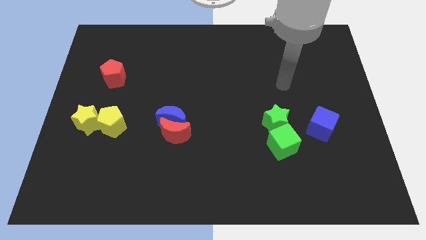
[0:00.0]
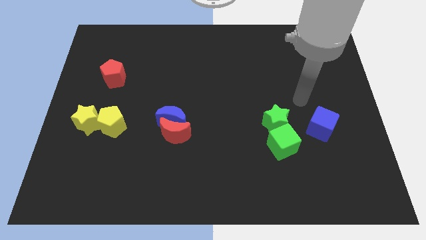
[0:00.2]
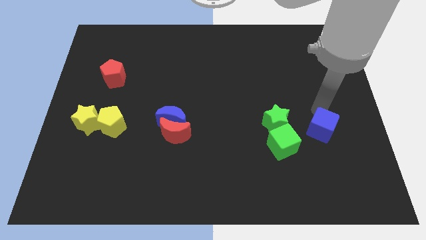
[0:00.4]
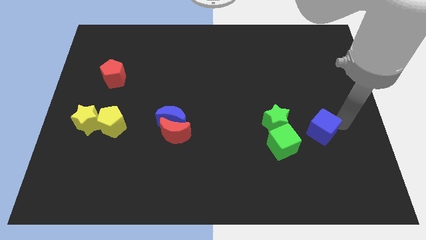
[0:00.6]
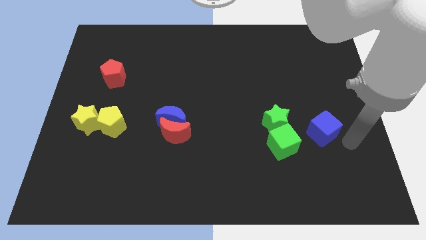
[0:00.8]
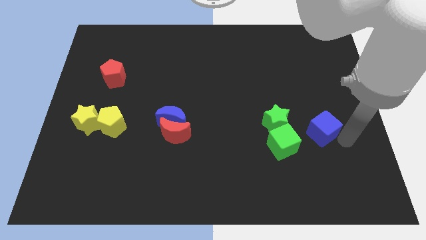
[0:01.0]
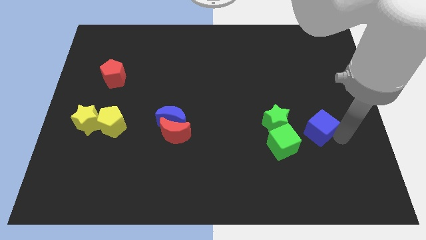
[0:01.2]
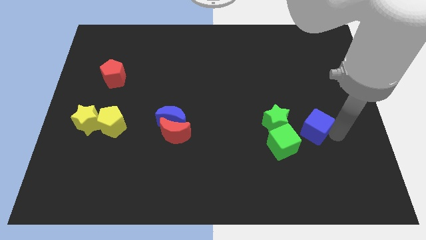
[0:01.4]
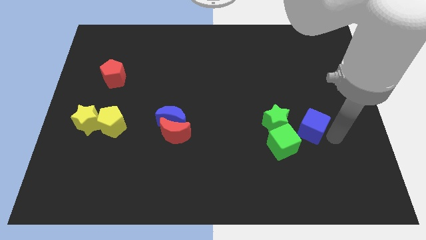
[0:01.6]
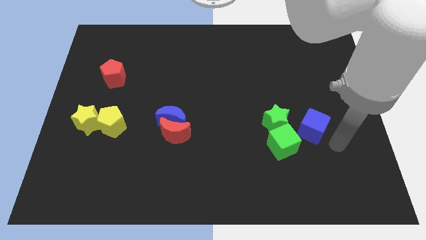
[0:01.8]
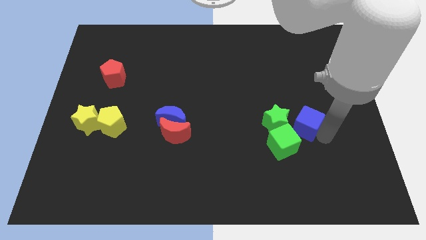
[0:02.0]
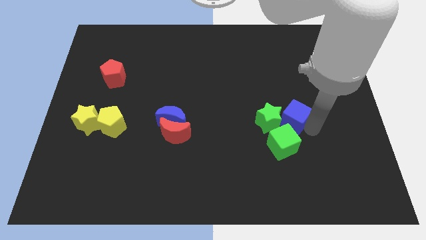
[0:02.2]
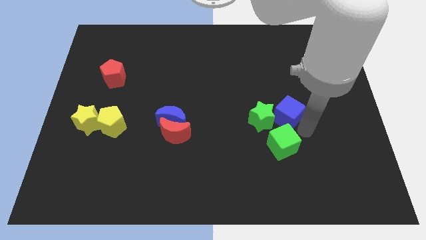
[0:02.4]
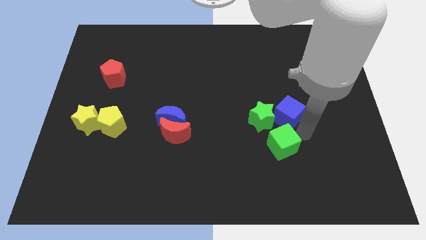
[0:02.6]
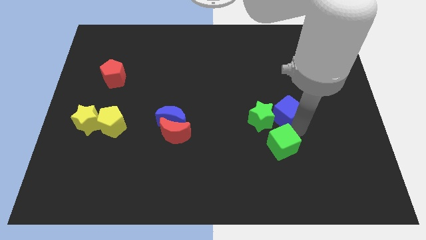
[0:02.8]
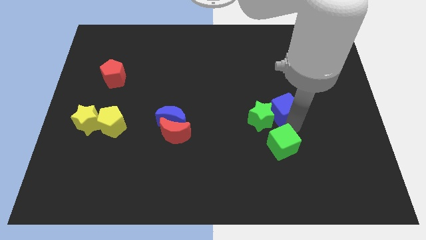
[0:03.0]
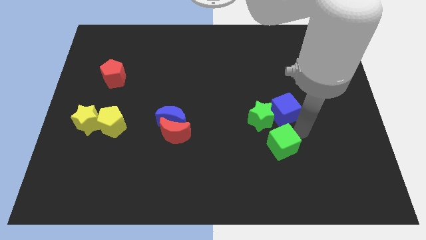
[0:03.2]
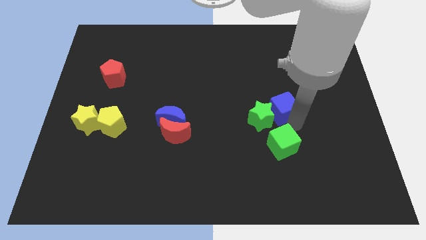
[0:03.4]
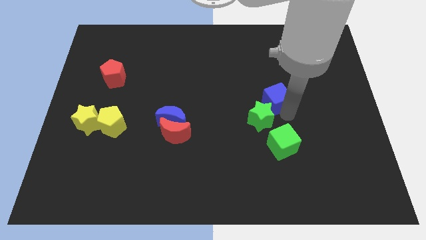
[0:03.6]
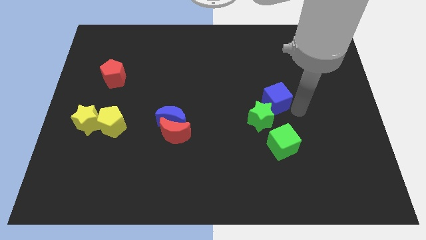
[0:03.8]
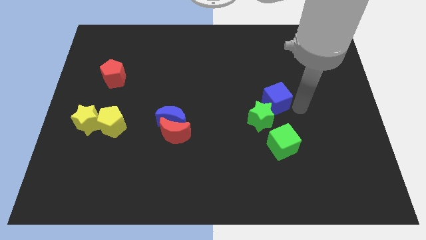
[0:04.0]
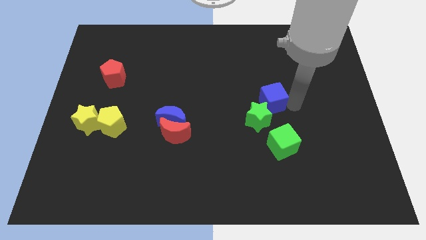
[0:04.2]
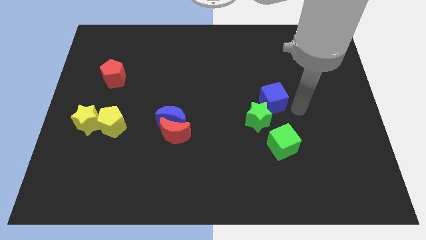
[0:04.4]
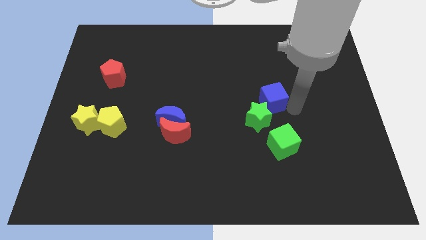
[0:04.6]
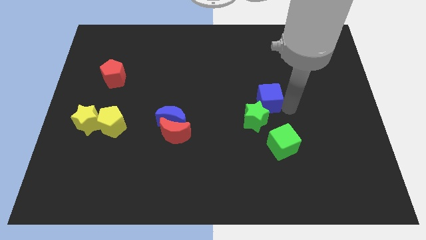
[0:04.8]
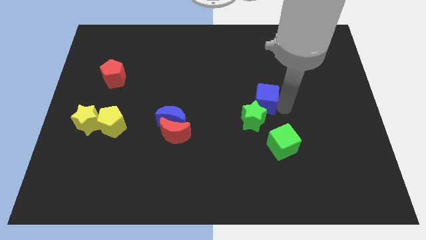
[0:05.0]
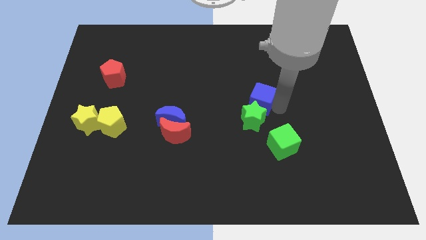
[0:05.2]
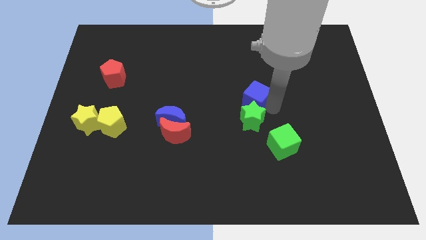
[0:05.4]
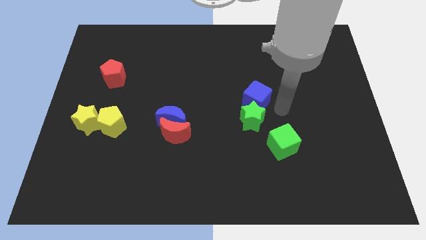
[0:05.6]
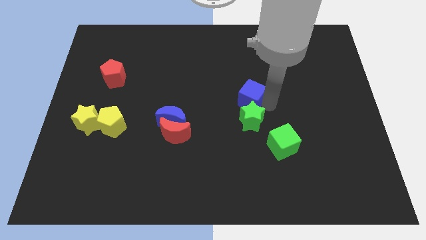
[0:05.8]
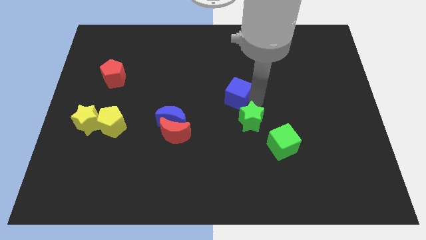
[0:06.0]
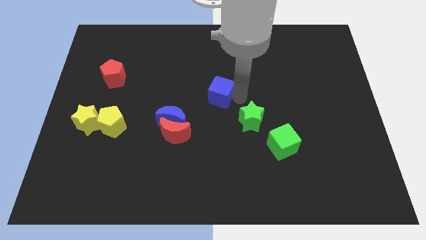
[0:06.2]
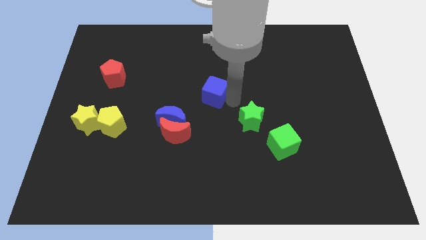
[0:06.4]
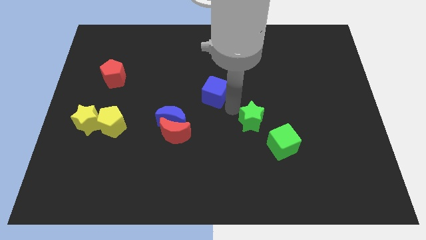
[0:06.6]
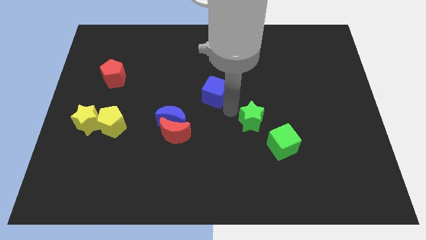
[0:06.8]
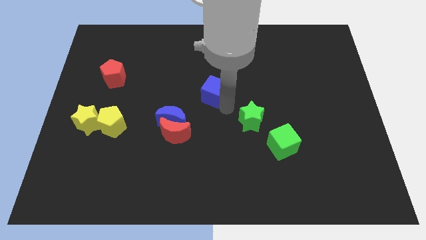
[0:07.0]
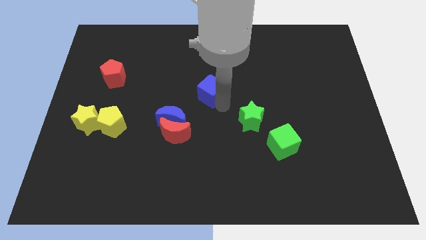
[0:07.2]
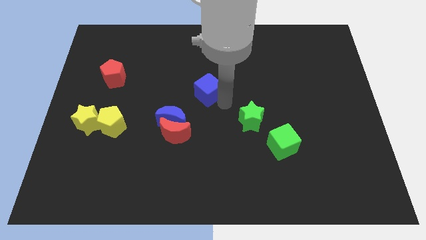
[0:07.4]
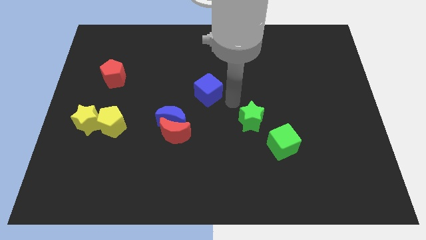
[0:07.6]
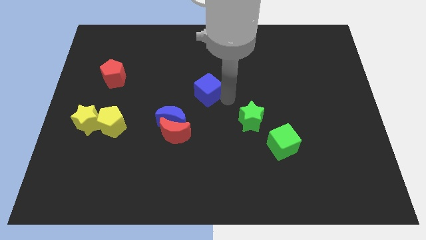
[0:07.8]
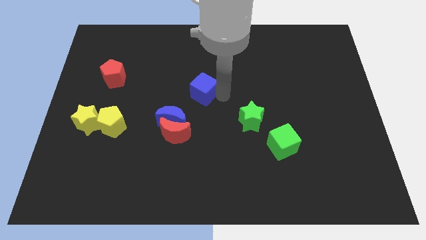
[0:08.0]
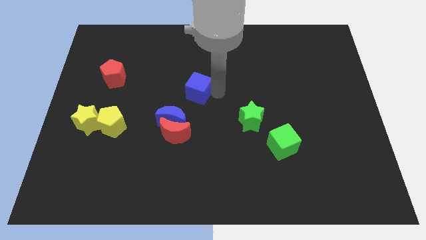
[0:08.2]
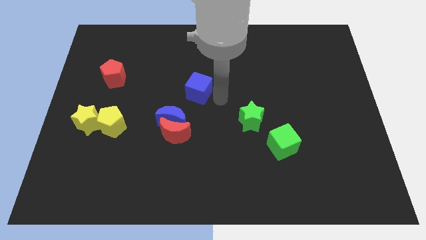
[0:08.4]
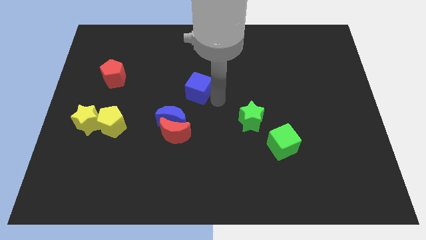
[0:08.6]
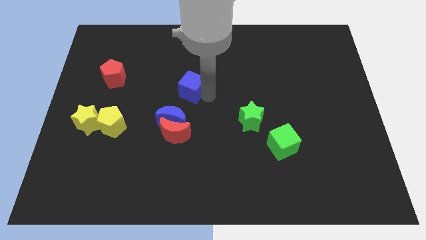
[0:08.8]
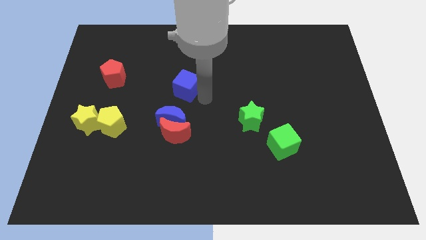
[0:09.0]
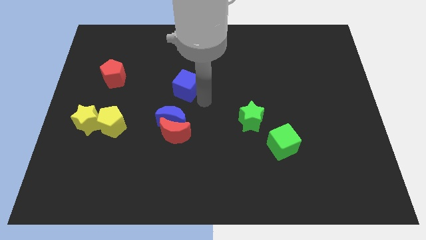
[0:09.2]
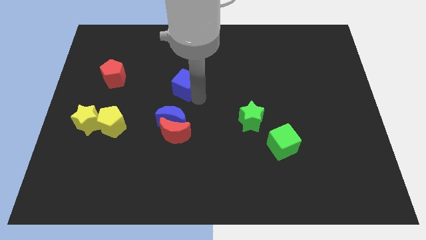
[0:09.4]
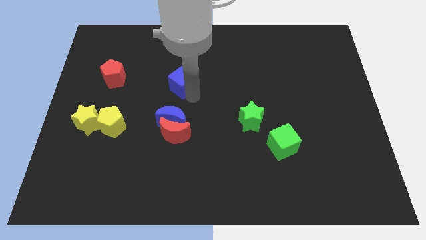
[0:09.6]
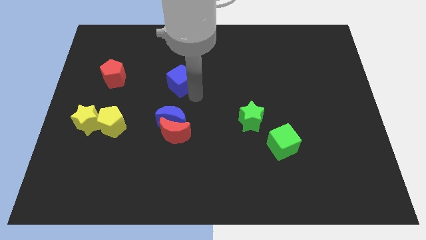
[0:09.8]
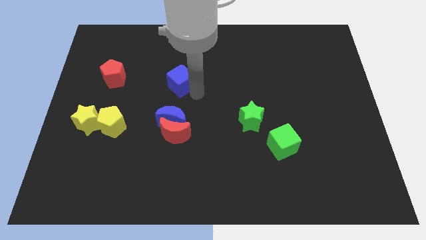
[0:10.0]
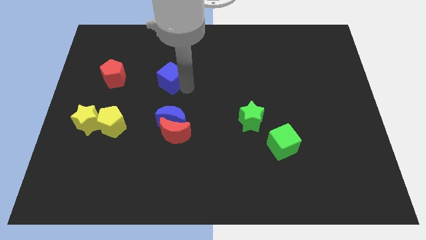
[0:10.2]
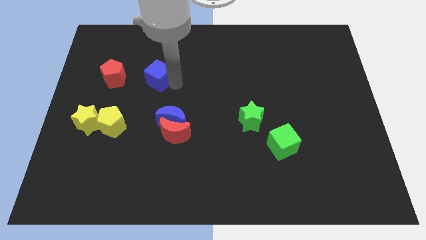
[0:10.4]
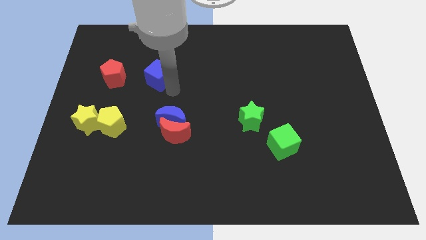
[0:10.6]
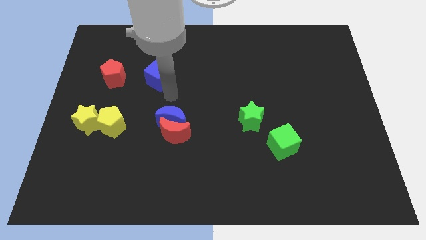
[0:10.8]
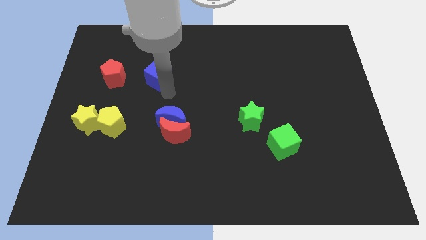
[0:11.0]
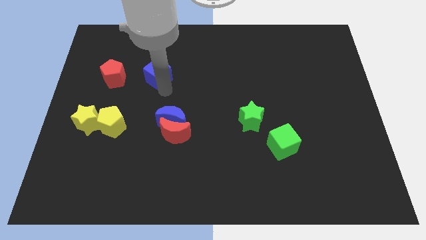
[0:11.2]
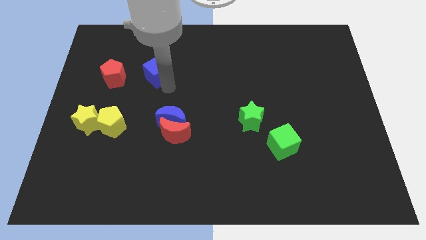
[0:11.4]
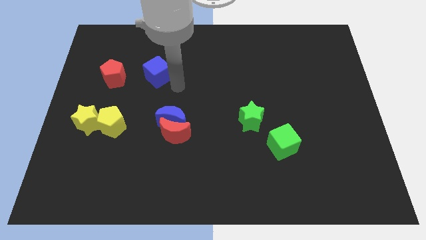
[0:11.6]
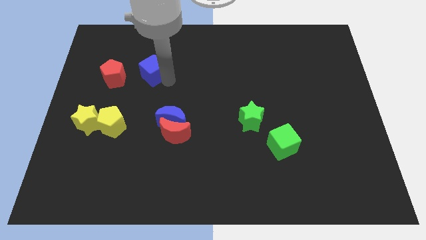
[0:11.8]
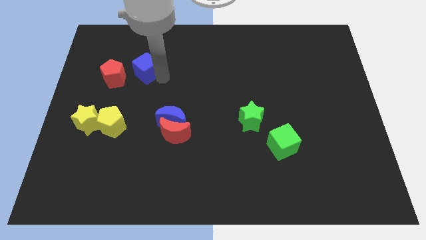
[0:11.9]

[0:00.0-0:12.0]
put the blue cube to the top right side of the red pentagon

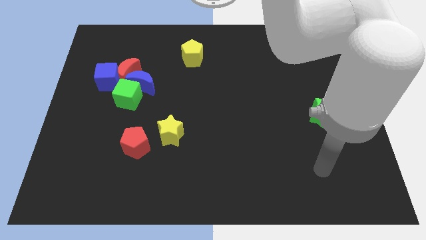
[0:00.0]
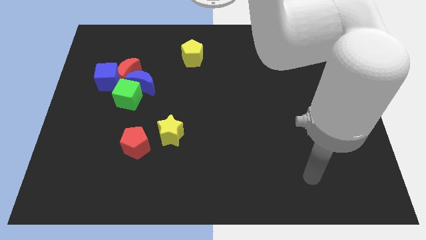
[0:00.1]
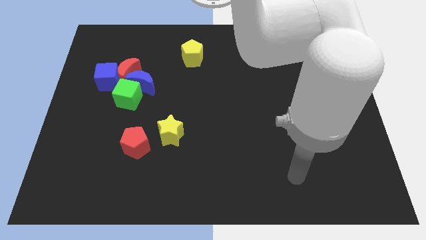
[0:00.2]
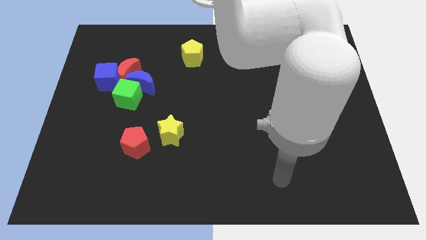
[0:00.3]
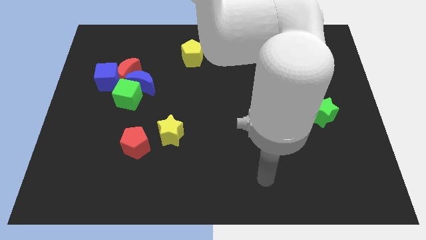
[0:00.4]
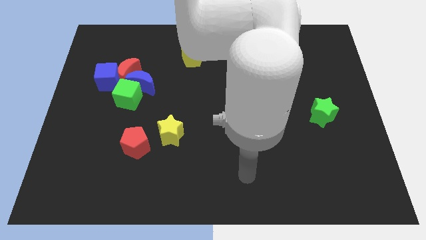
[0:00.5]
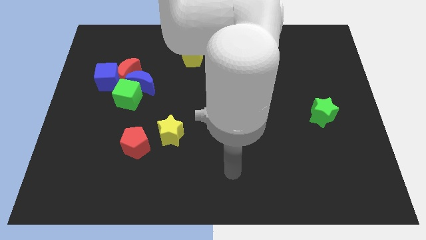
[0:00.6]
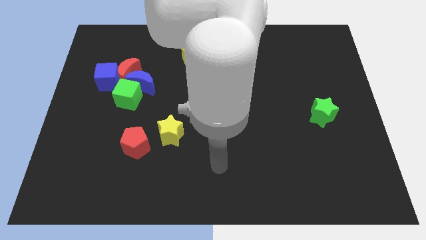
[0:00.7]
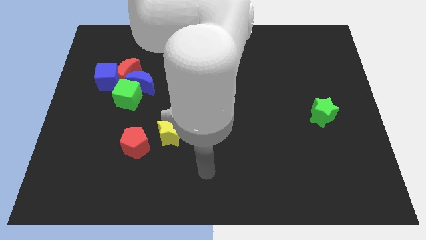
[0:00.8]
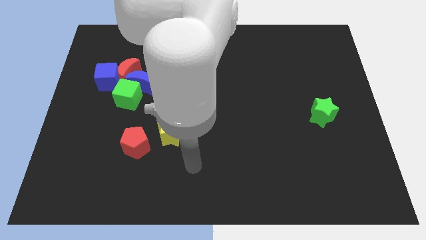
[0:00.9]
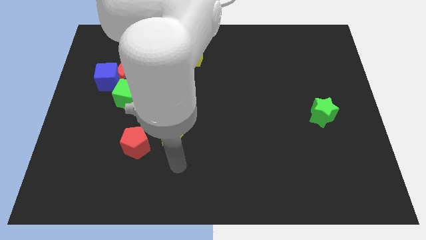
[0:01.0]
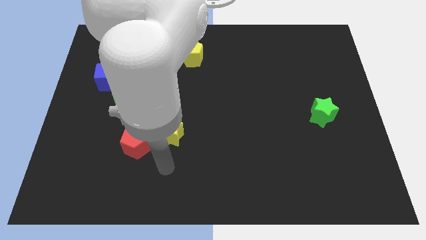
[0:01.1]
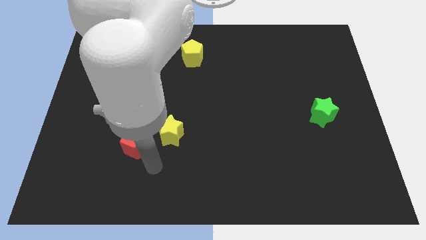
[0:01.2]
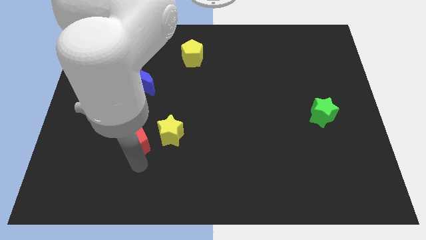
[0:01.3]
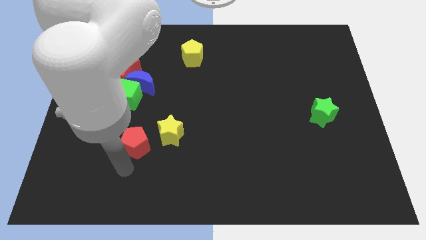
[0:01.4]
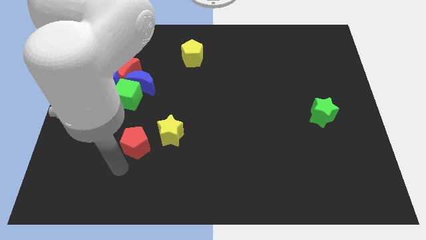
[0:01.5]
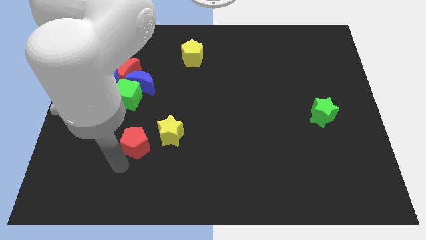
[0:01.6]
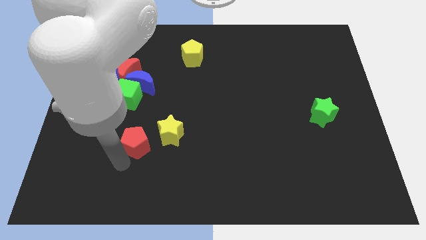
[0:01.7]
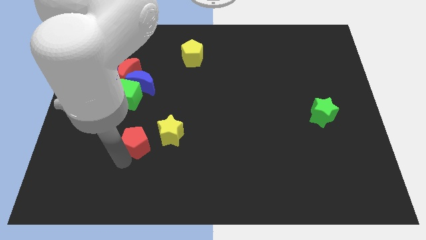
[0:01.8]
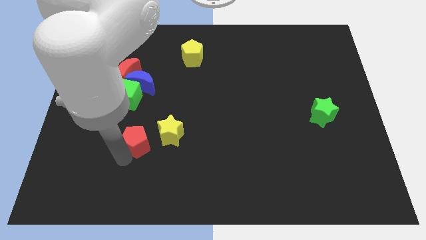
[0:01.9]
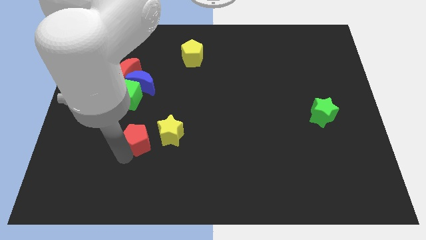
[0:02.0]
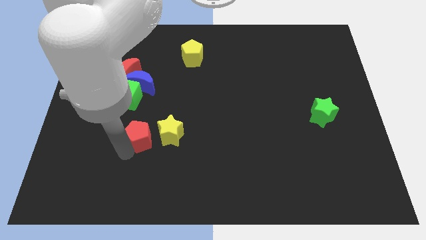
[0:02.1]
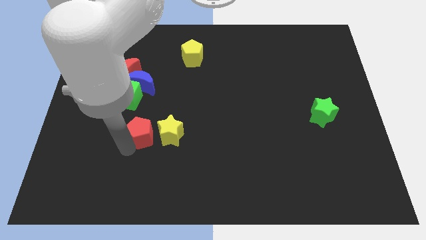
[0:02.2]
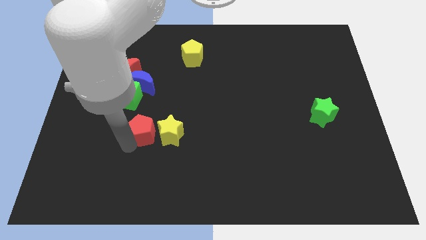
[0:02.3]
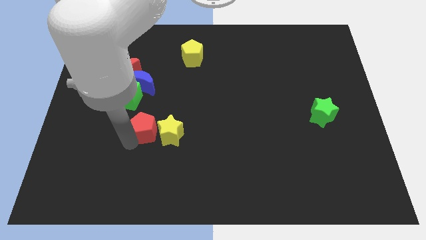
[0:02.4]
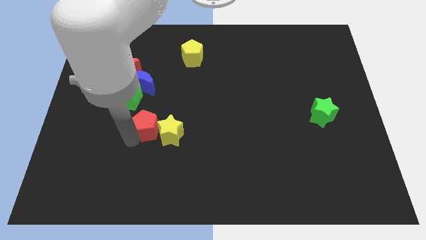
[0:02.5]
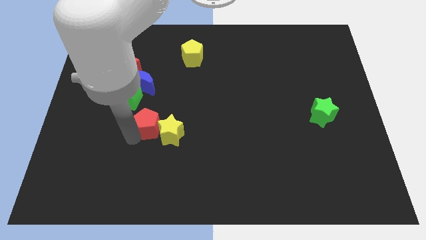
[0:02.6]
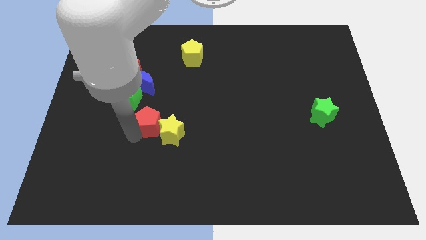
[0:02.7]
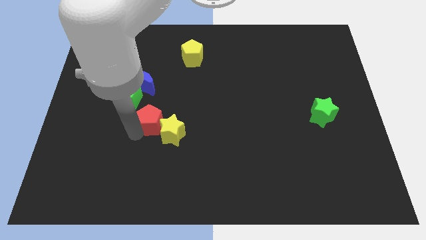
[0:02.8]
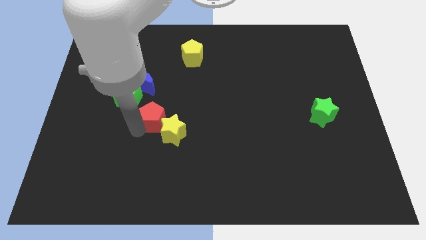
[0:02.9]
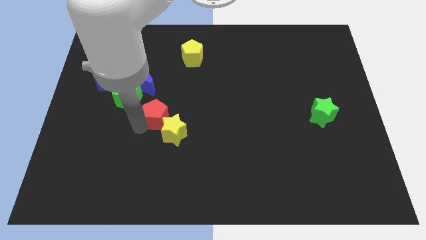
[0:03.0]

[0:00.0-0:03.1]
slide the red pentagon to the top of the yellow star
